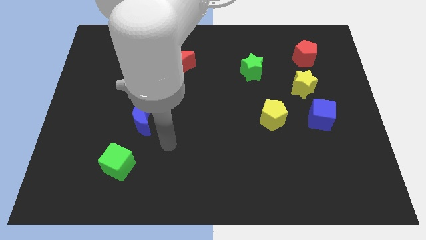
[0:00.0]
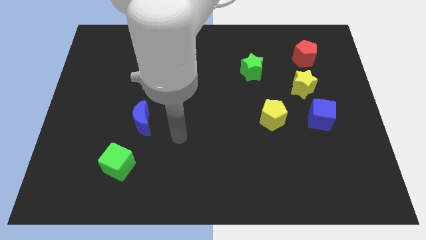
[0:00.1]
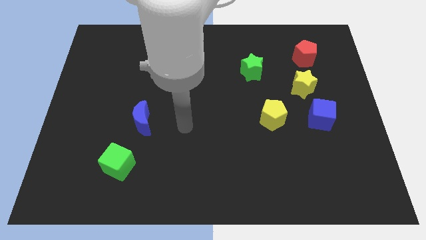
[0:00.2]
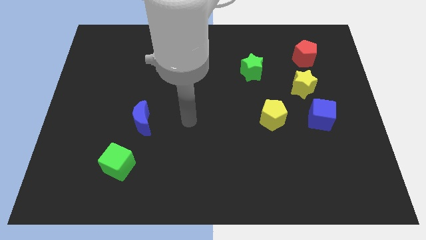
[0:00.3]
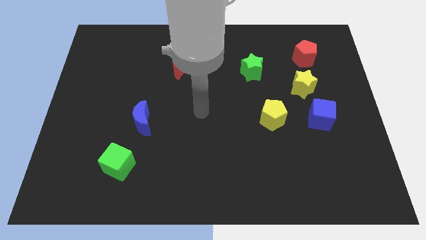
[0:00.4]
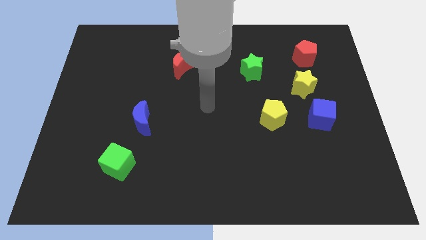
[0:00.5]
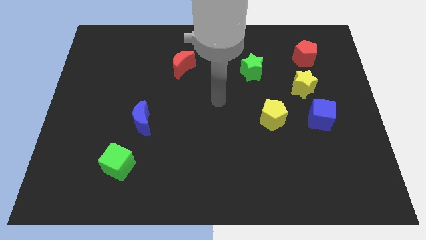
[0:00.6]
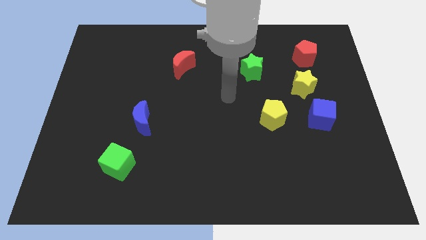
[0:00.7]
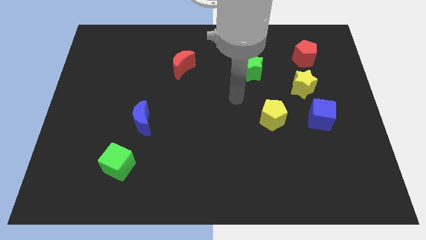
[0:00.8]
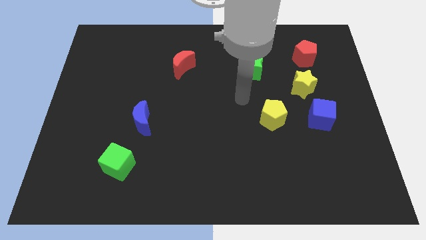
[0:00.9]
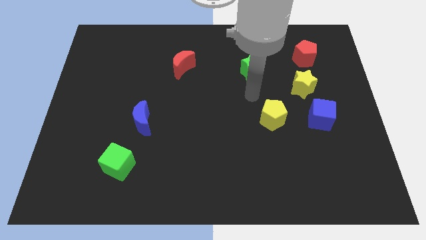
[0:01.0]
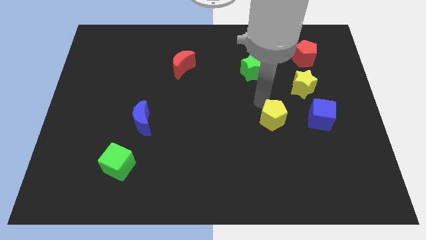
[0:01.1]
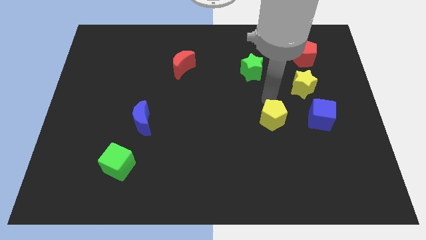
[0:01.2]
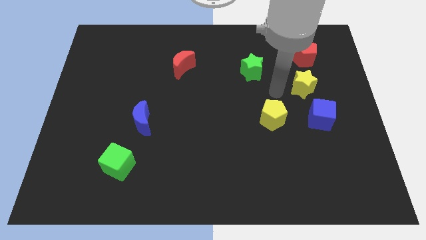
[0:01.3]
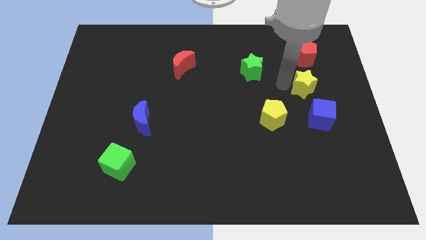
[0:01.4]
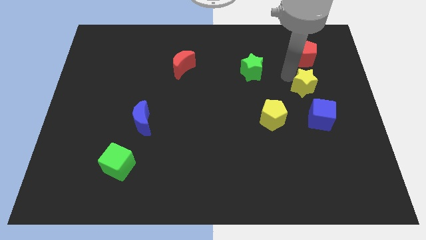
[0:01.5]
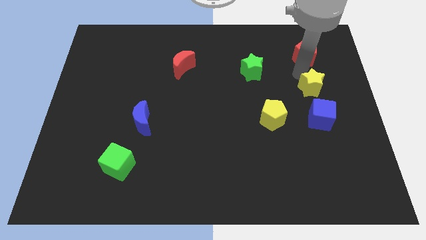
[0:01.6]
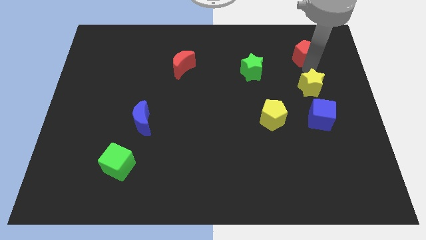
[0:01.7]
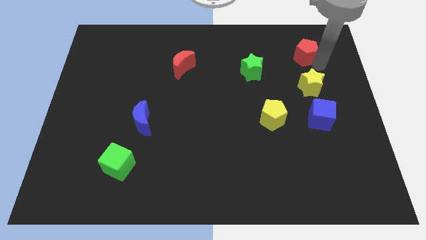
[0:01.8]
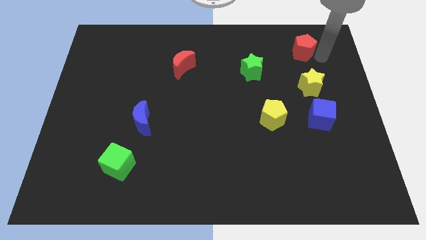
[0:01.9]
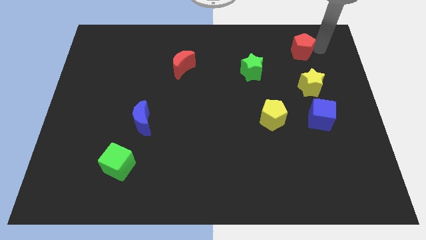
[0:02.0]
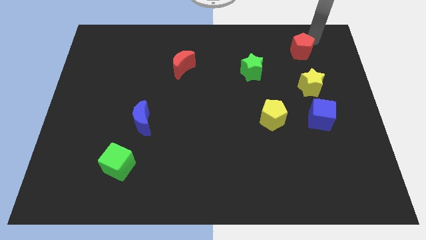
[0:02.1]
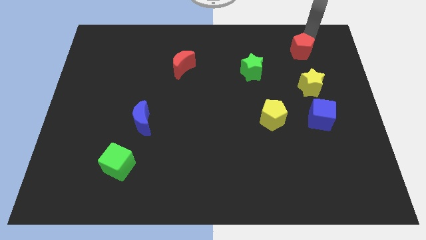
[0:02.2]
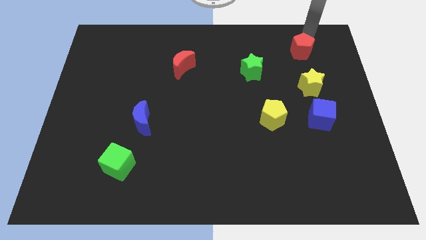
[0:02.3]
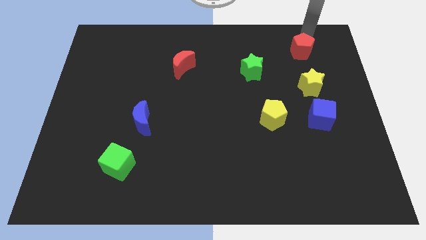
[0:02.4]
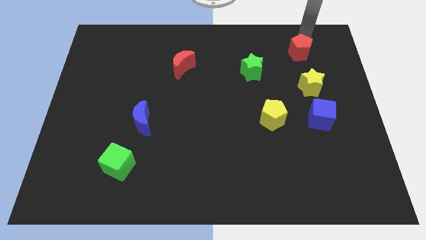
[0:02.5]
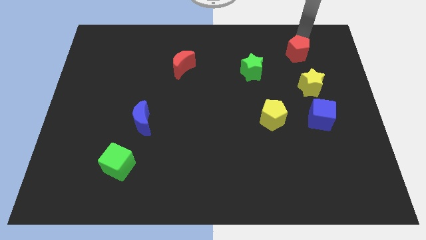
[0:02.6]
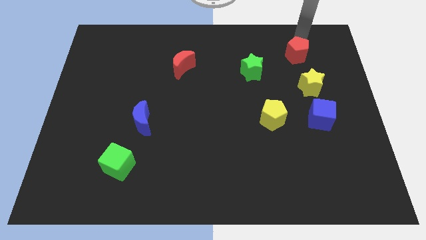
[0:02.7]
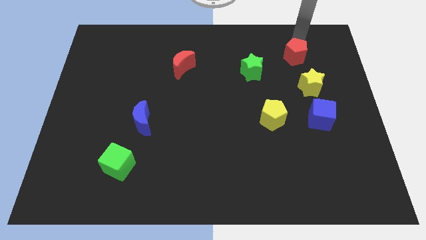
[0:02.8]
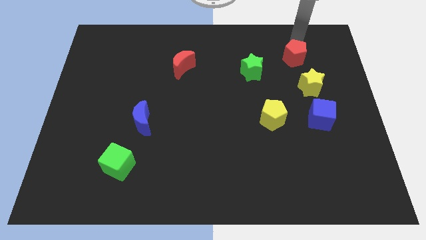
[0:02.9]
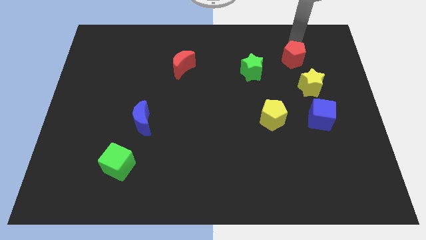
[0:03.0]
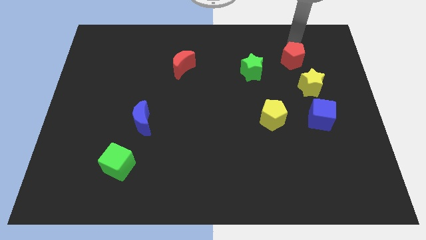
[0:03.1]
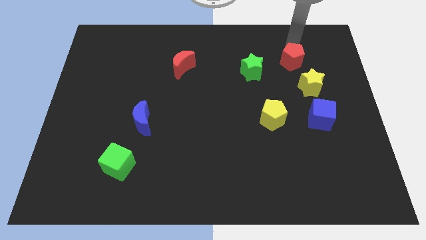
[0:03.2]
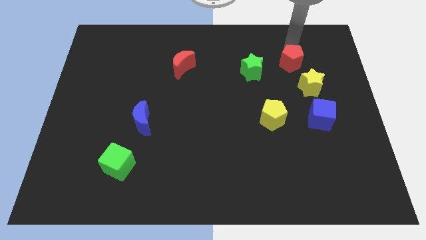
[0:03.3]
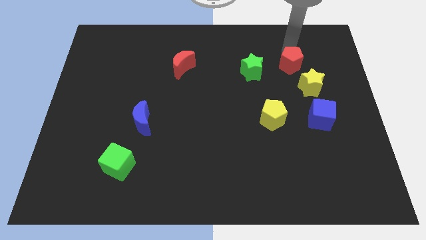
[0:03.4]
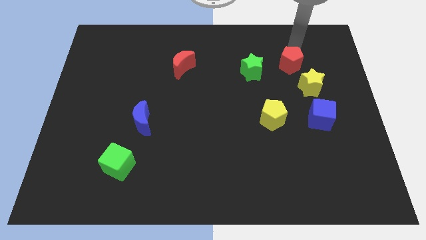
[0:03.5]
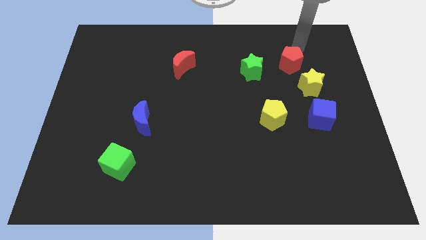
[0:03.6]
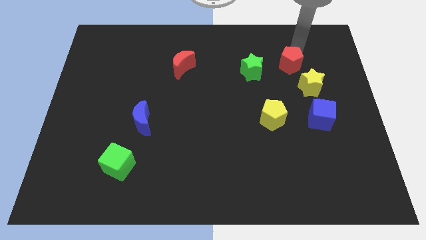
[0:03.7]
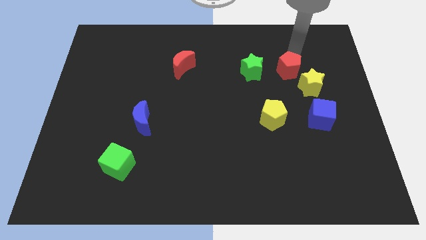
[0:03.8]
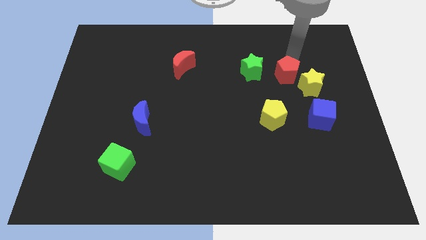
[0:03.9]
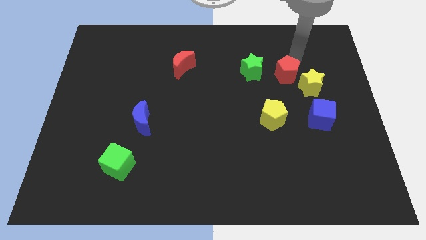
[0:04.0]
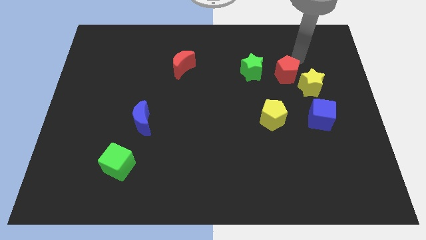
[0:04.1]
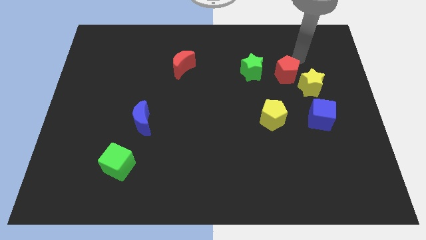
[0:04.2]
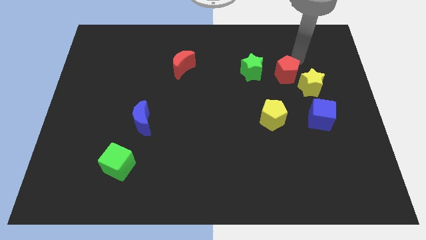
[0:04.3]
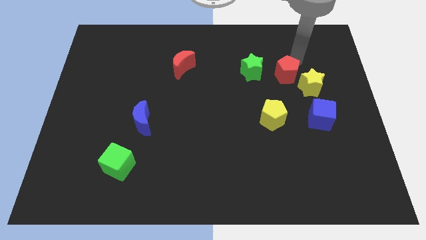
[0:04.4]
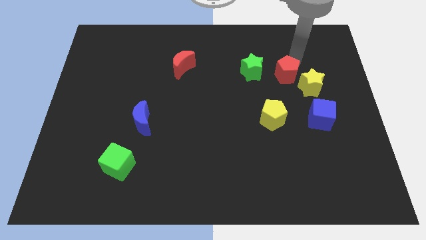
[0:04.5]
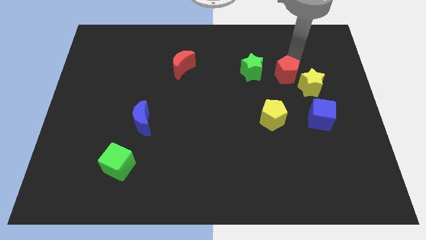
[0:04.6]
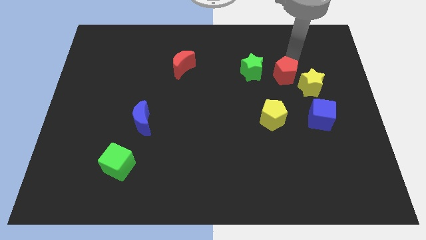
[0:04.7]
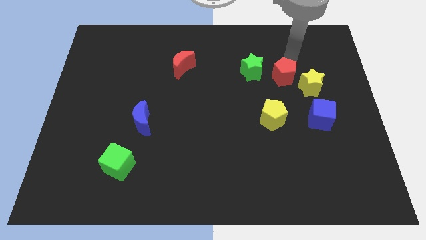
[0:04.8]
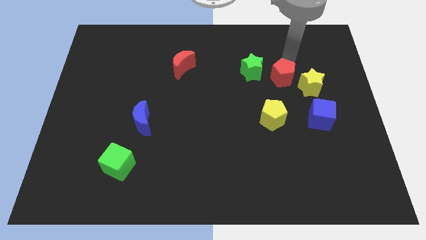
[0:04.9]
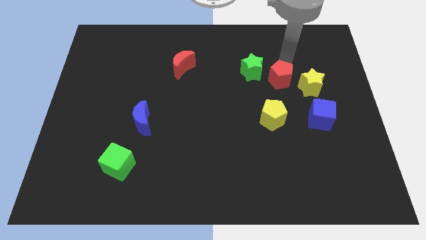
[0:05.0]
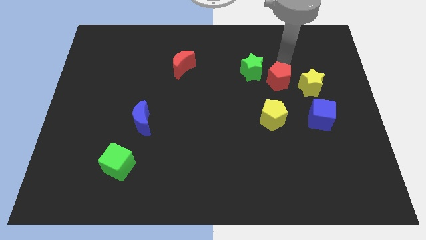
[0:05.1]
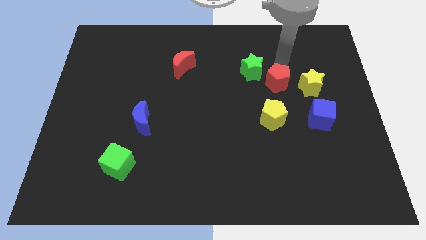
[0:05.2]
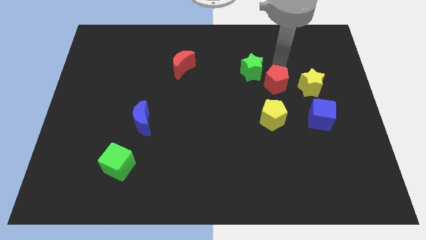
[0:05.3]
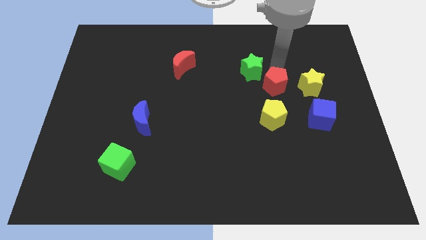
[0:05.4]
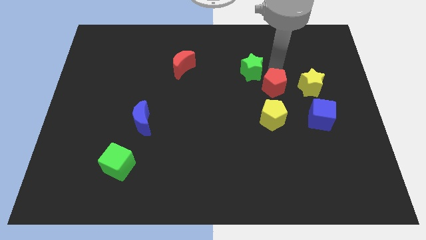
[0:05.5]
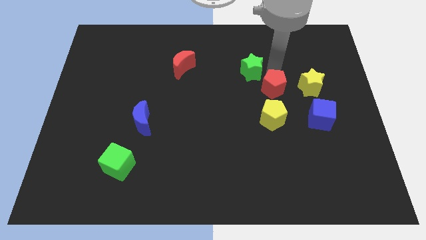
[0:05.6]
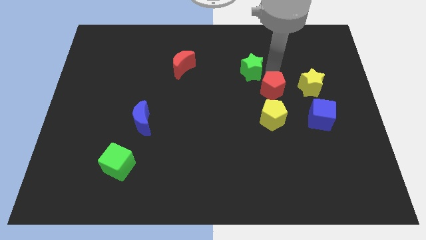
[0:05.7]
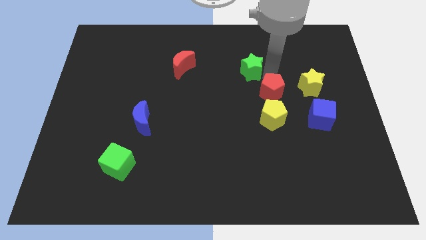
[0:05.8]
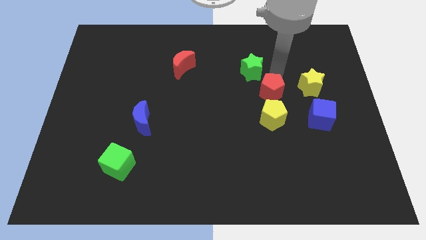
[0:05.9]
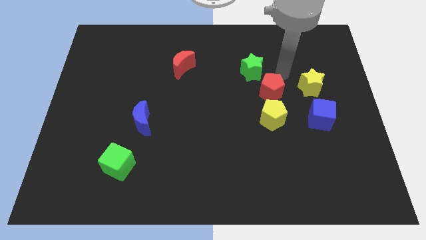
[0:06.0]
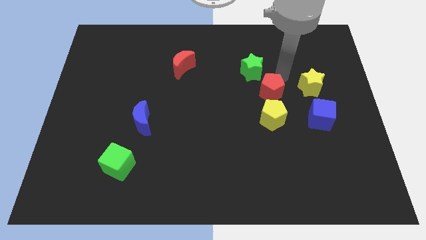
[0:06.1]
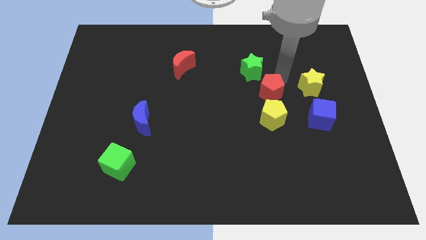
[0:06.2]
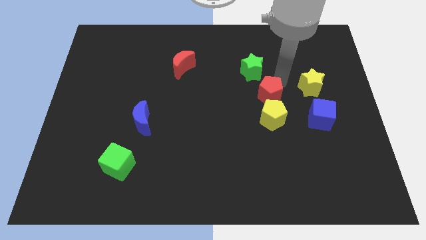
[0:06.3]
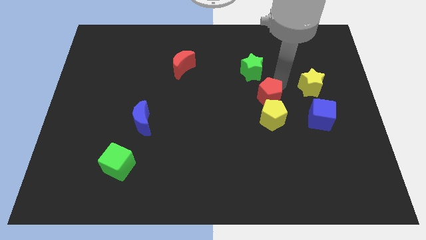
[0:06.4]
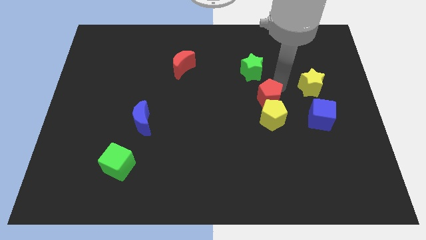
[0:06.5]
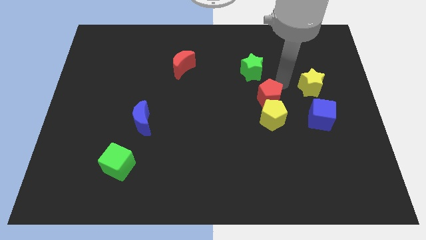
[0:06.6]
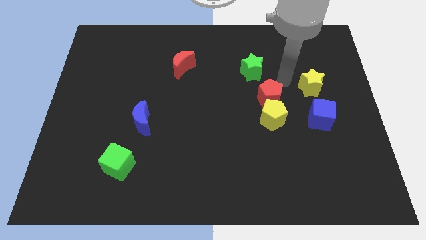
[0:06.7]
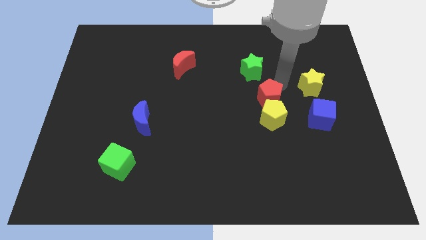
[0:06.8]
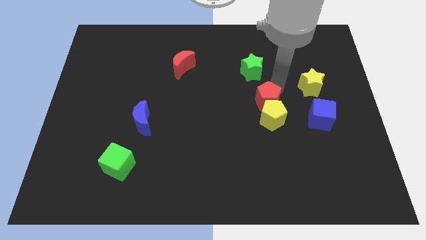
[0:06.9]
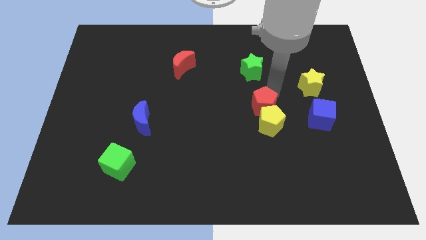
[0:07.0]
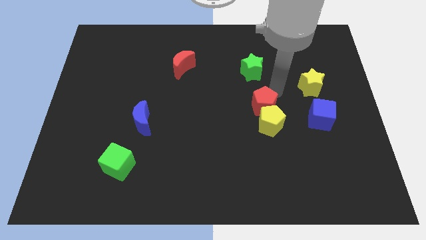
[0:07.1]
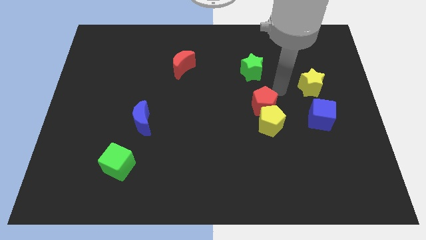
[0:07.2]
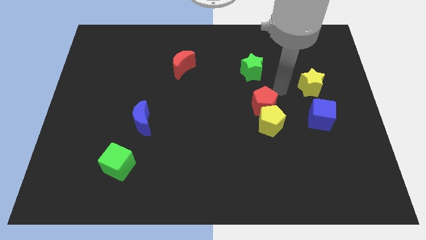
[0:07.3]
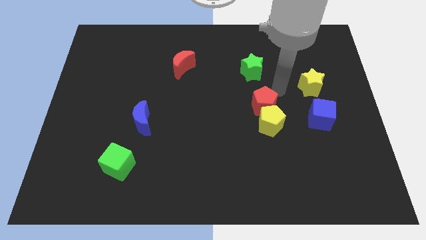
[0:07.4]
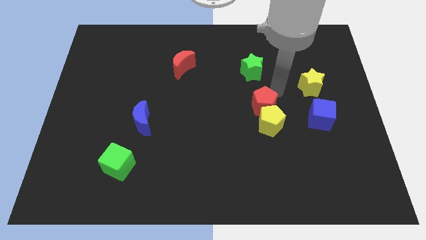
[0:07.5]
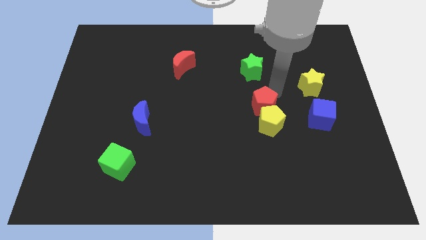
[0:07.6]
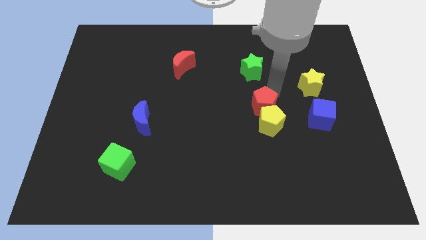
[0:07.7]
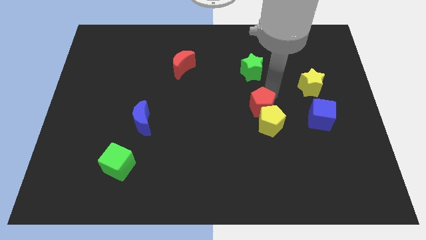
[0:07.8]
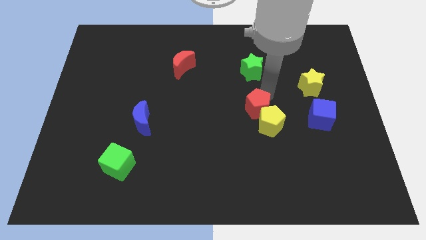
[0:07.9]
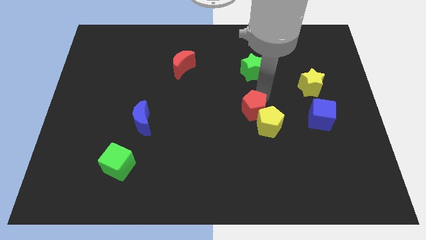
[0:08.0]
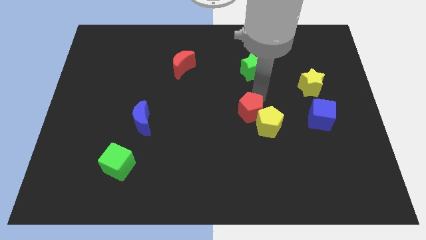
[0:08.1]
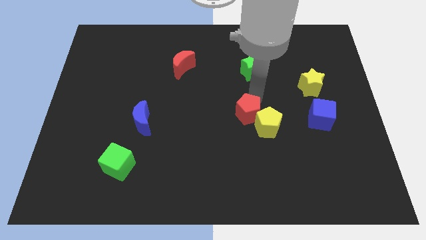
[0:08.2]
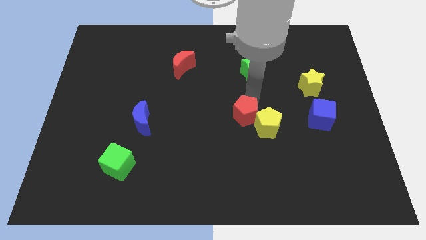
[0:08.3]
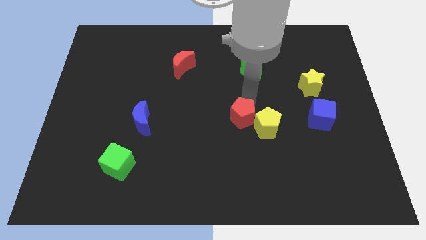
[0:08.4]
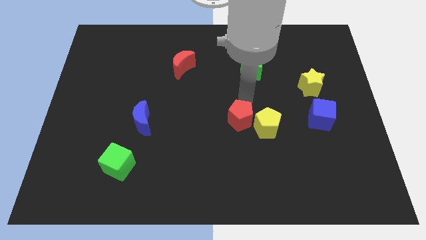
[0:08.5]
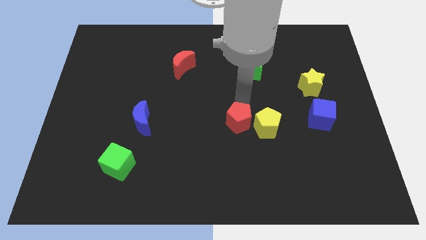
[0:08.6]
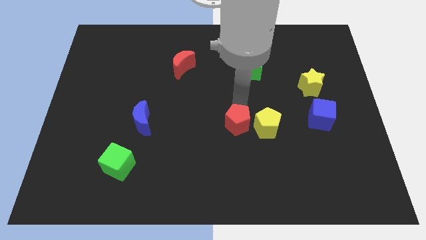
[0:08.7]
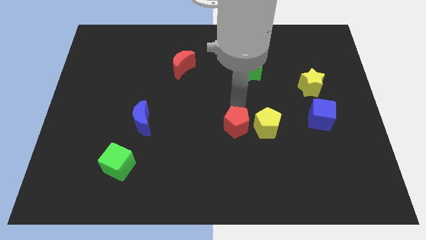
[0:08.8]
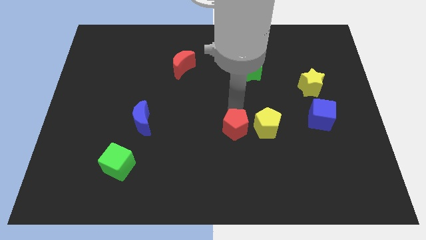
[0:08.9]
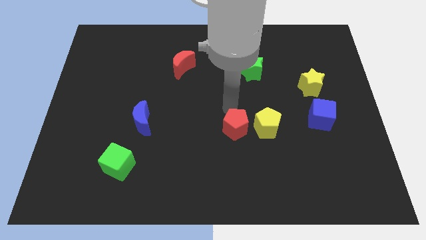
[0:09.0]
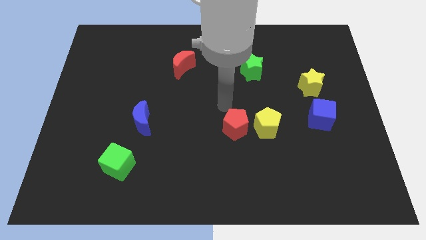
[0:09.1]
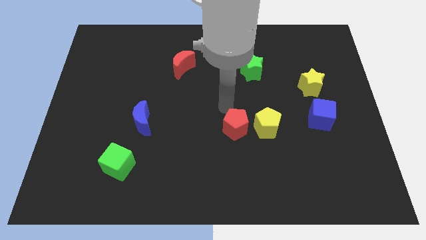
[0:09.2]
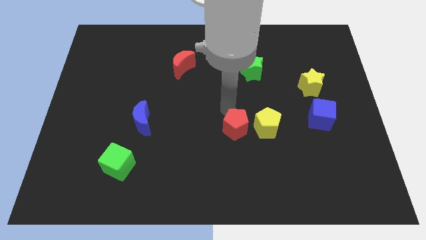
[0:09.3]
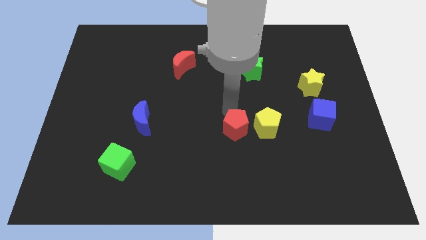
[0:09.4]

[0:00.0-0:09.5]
move the red pentagon to the bottom left side of the yellow pentagon
